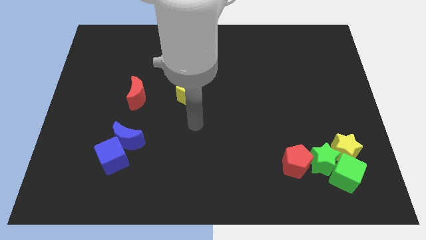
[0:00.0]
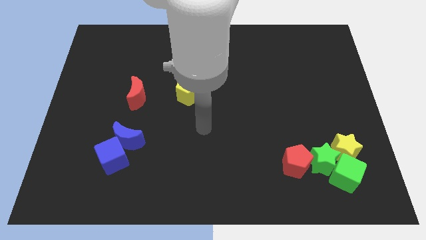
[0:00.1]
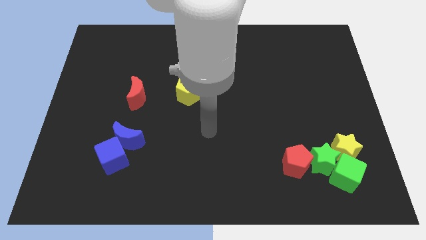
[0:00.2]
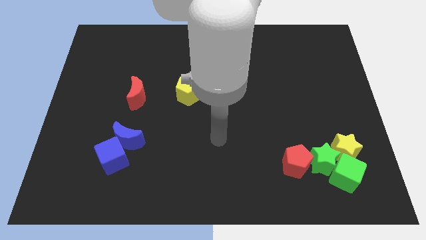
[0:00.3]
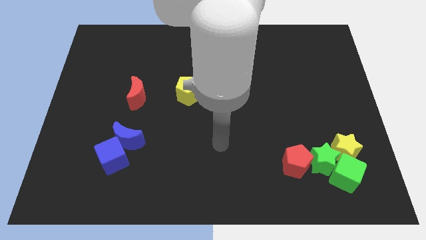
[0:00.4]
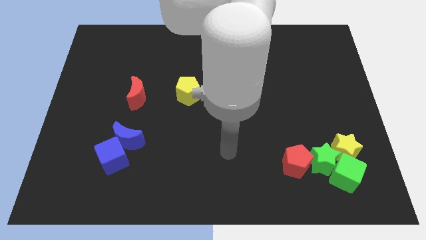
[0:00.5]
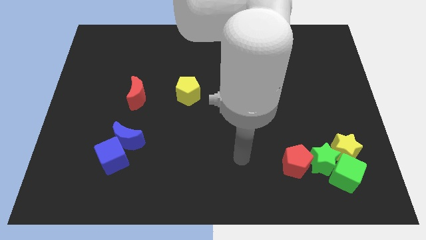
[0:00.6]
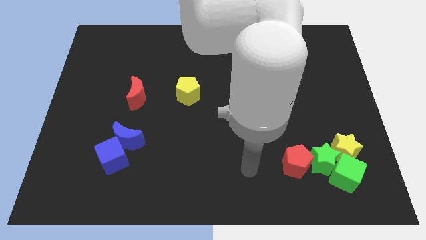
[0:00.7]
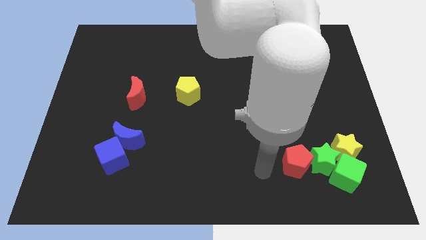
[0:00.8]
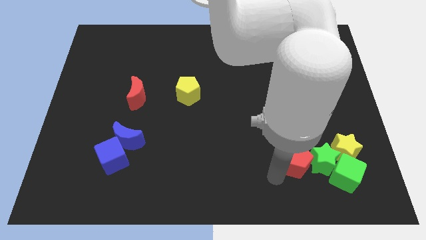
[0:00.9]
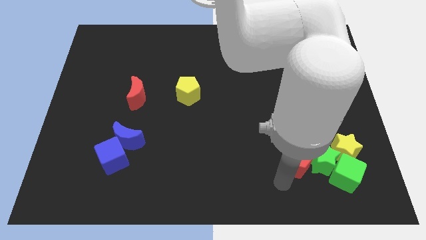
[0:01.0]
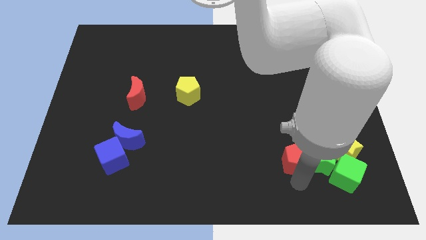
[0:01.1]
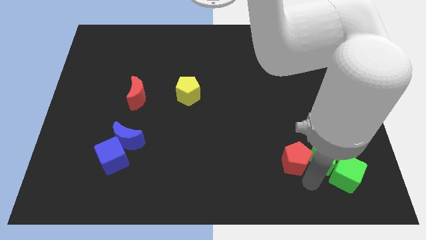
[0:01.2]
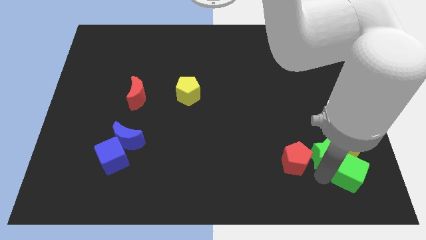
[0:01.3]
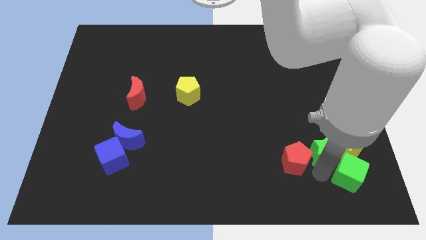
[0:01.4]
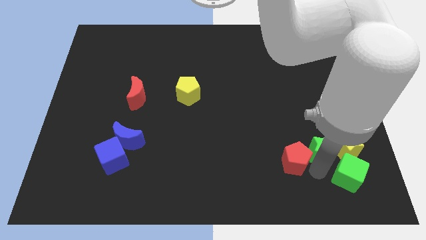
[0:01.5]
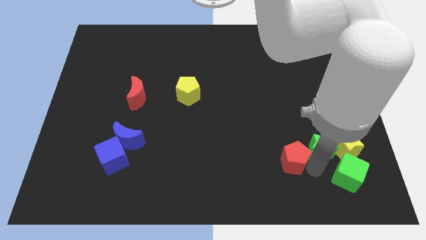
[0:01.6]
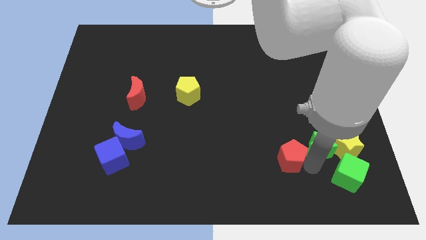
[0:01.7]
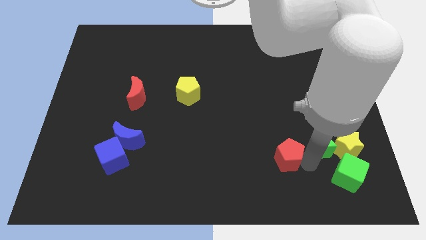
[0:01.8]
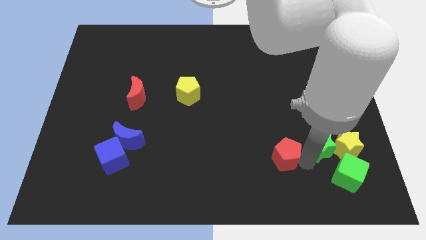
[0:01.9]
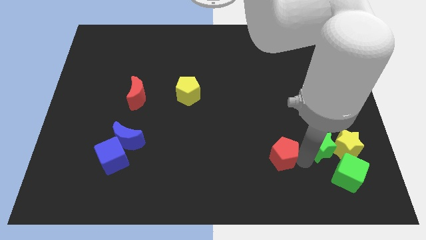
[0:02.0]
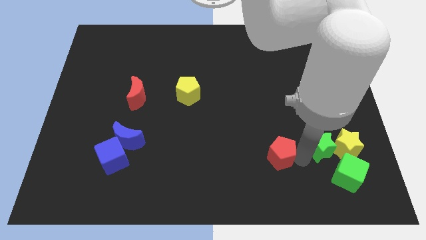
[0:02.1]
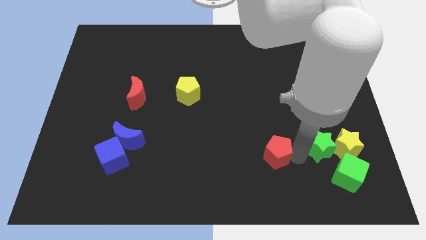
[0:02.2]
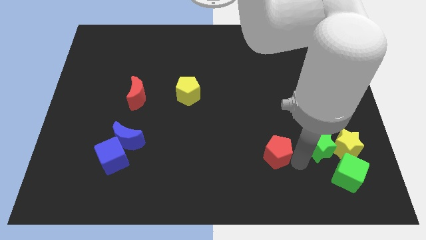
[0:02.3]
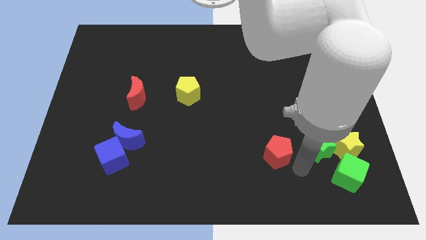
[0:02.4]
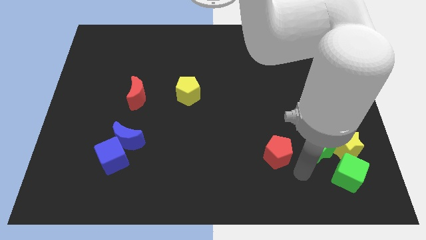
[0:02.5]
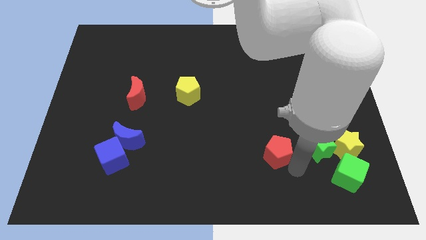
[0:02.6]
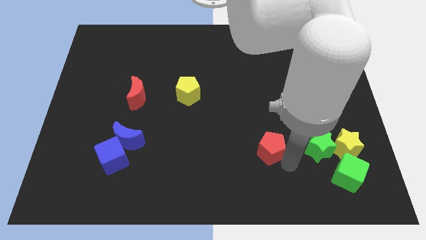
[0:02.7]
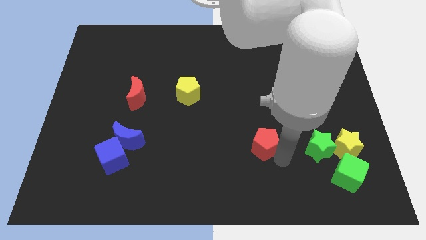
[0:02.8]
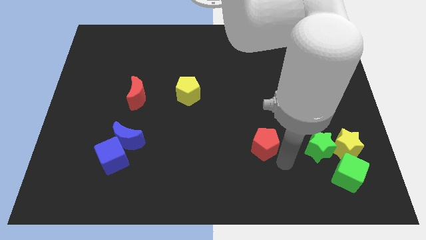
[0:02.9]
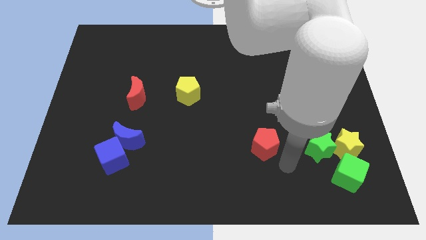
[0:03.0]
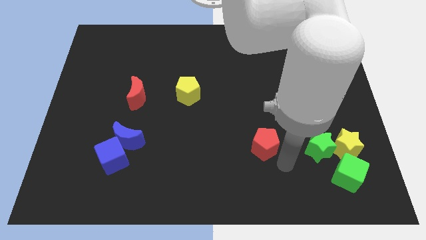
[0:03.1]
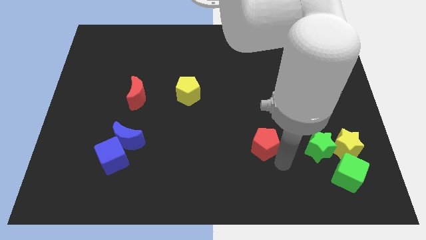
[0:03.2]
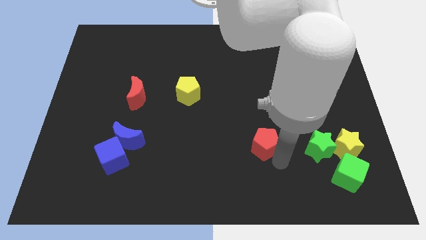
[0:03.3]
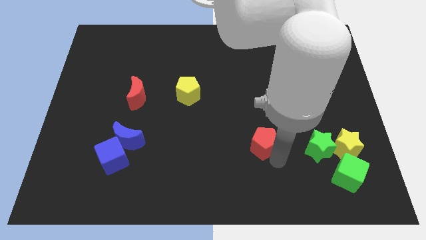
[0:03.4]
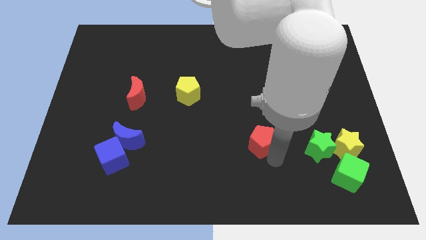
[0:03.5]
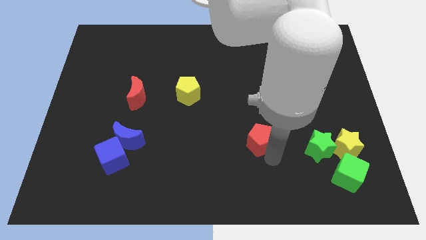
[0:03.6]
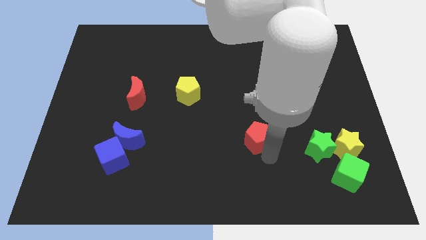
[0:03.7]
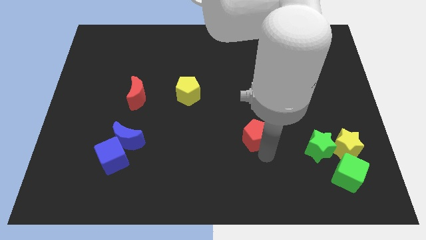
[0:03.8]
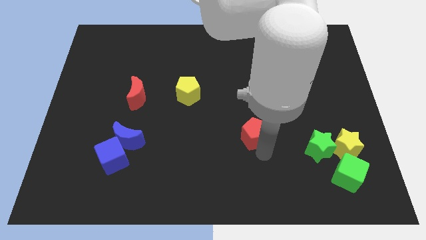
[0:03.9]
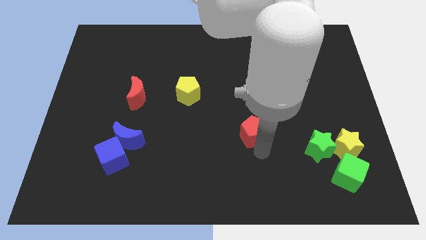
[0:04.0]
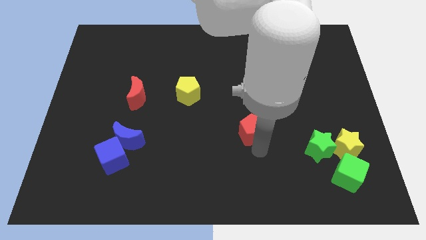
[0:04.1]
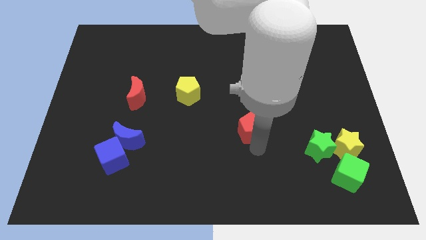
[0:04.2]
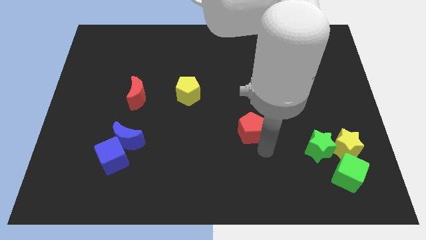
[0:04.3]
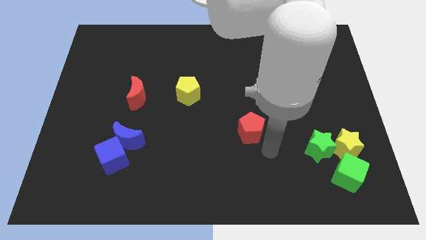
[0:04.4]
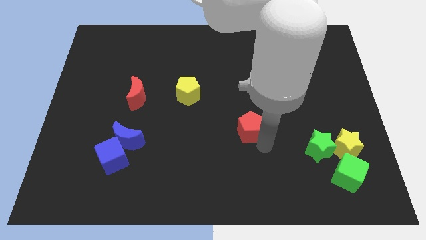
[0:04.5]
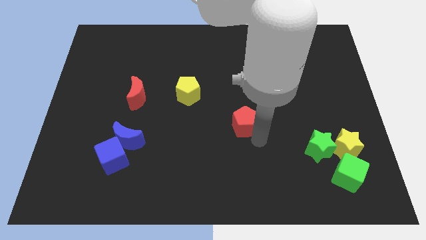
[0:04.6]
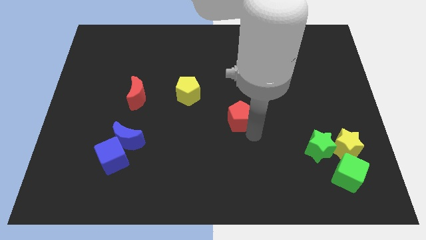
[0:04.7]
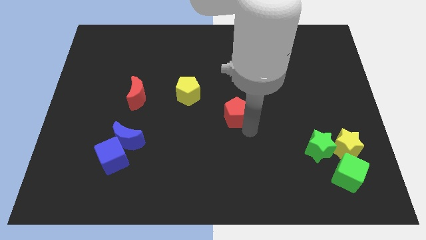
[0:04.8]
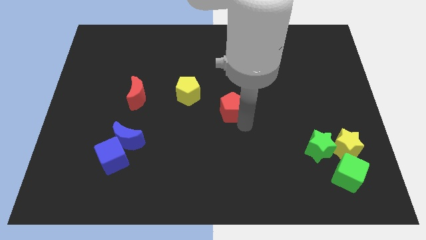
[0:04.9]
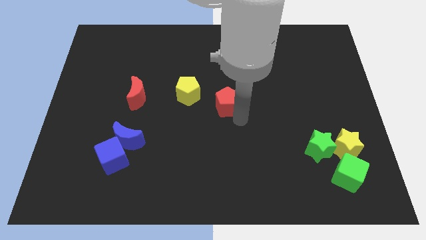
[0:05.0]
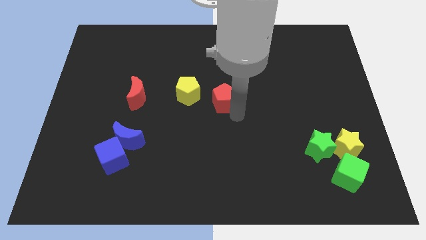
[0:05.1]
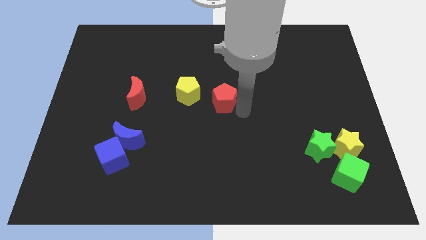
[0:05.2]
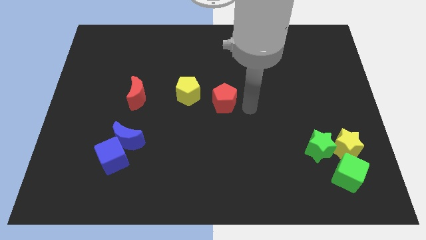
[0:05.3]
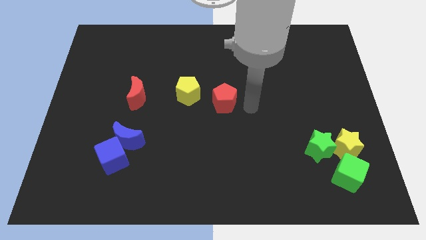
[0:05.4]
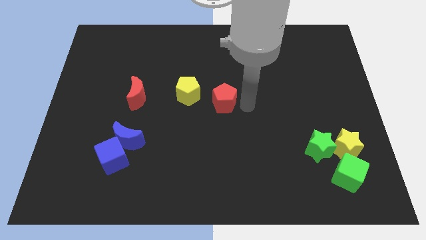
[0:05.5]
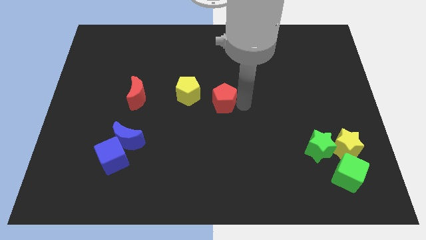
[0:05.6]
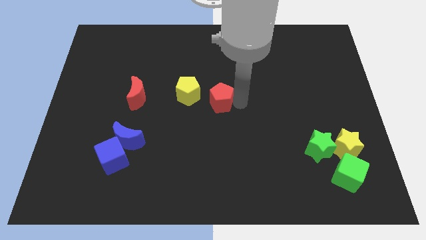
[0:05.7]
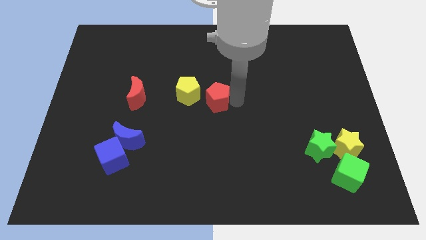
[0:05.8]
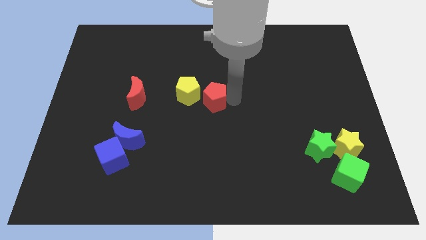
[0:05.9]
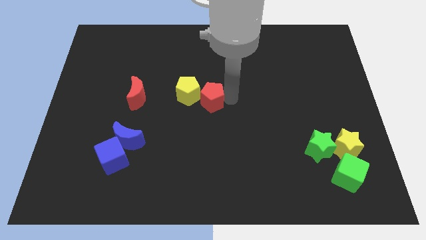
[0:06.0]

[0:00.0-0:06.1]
put the red pentagon close to the yellow pentagon

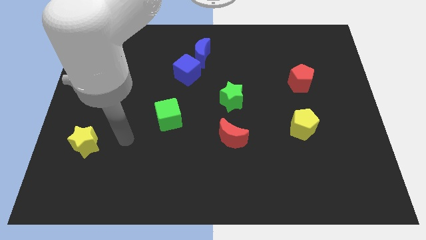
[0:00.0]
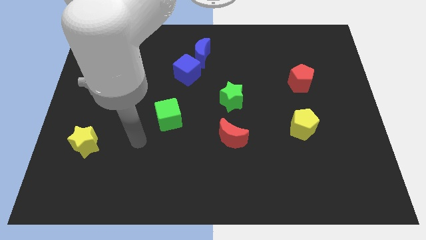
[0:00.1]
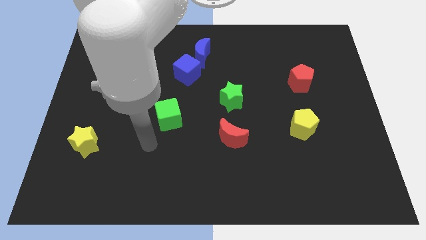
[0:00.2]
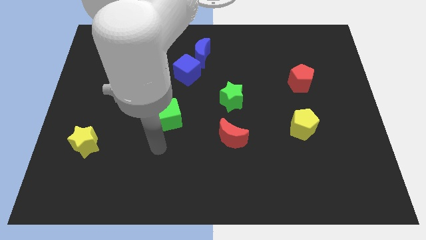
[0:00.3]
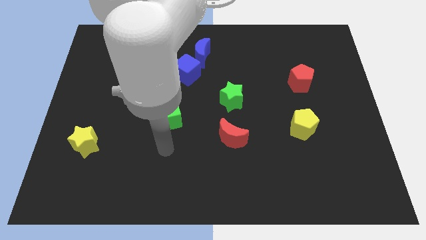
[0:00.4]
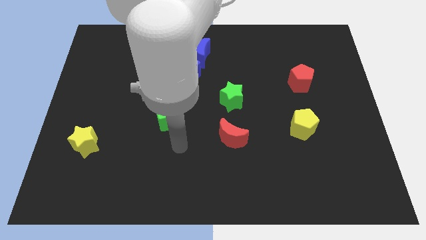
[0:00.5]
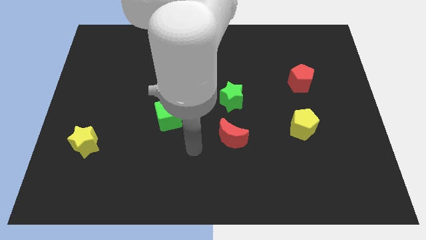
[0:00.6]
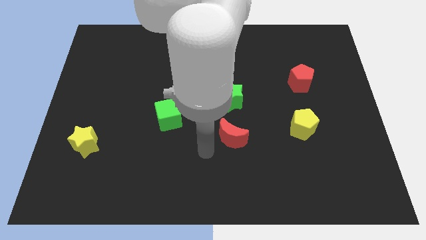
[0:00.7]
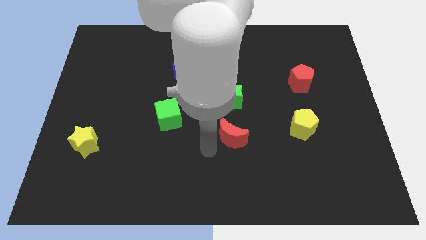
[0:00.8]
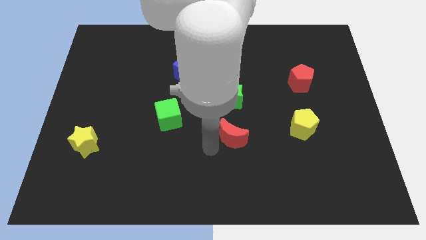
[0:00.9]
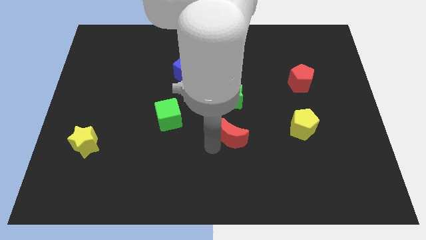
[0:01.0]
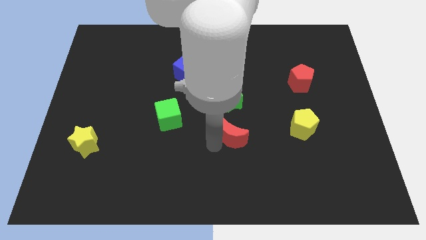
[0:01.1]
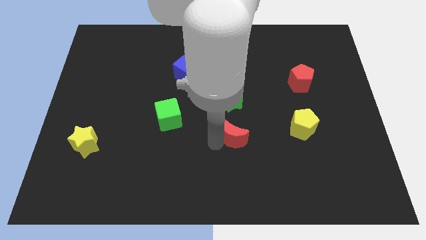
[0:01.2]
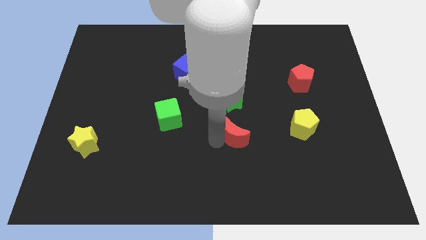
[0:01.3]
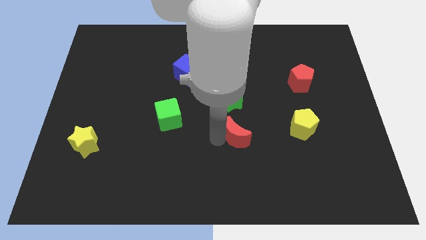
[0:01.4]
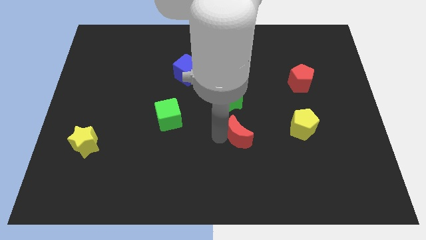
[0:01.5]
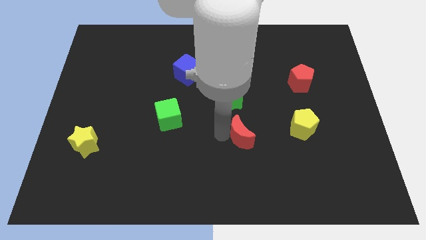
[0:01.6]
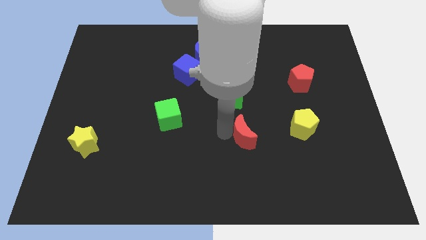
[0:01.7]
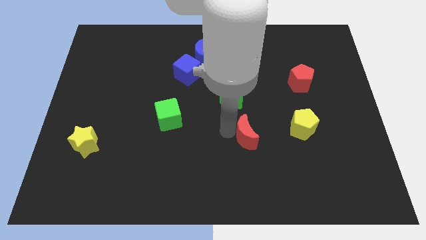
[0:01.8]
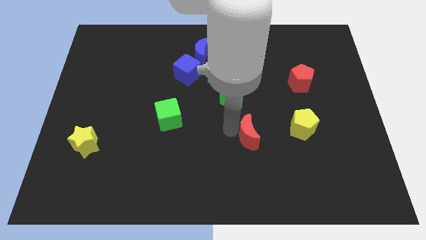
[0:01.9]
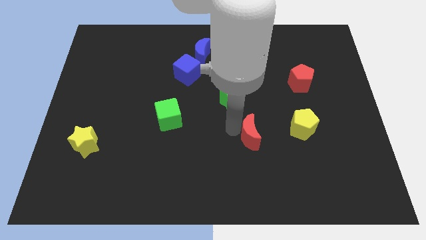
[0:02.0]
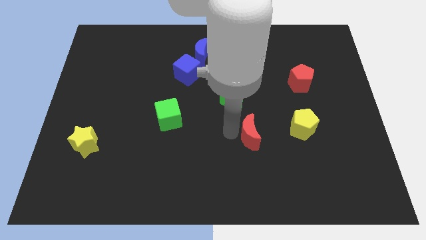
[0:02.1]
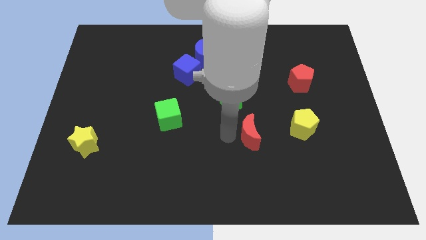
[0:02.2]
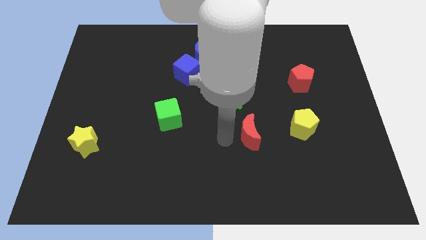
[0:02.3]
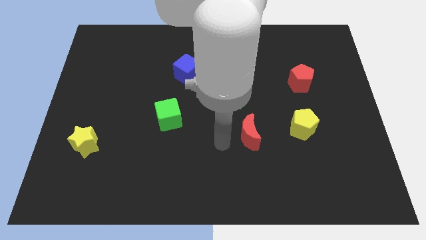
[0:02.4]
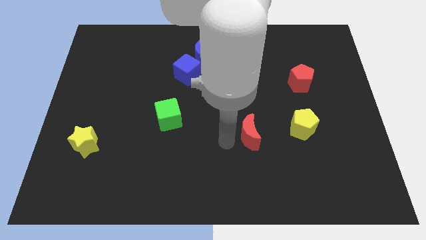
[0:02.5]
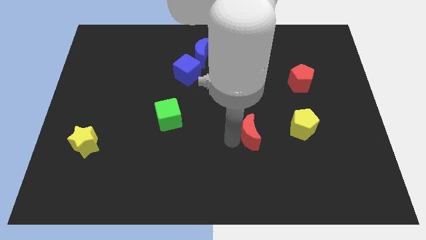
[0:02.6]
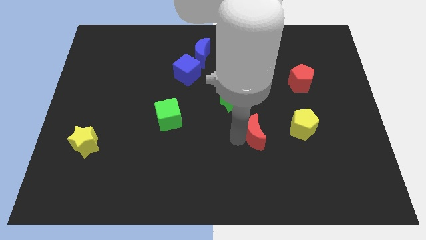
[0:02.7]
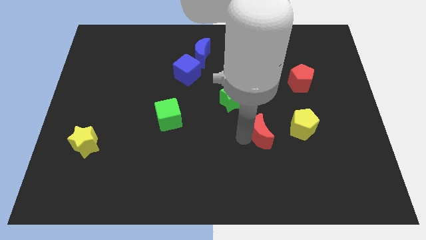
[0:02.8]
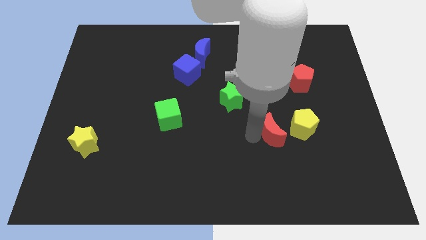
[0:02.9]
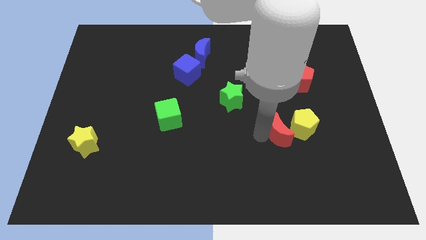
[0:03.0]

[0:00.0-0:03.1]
put the red moon to the yellow pentagon
